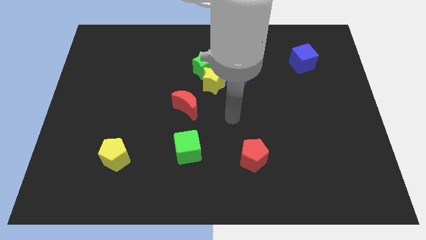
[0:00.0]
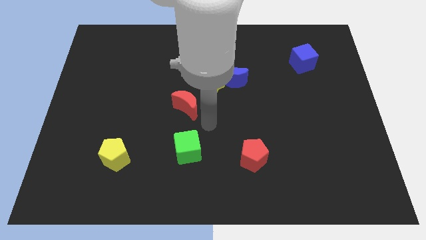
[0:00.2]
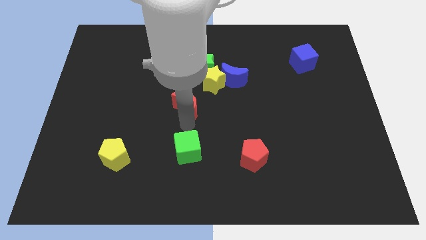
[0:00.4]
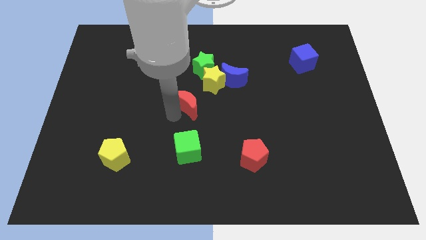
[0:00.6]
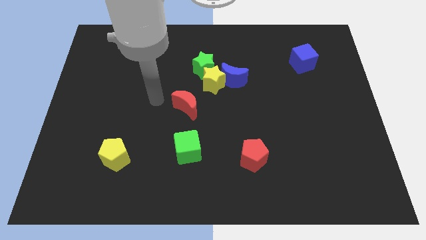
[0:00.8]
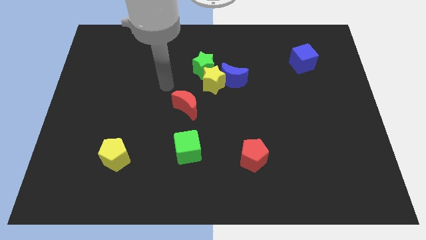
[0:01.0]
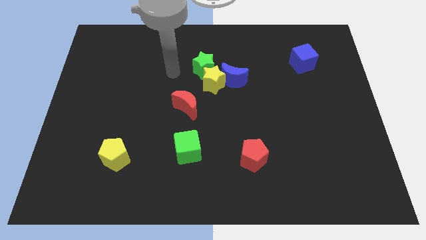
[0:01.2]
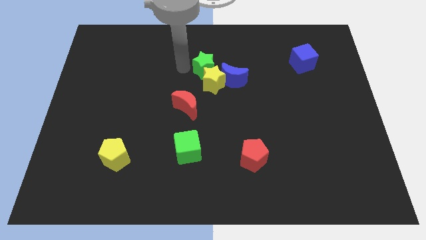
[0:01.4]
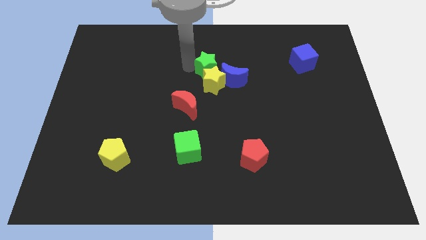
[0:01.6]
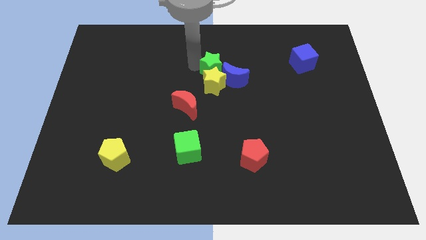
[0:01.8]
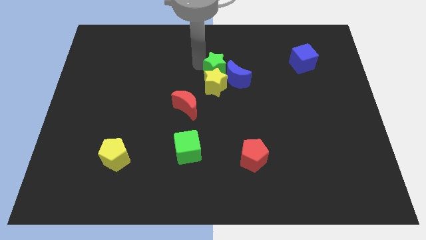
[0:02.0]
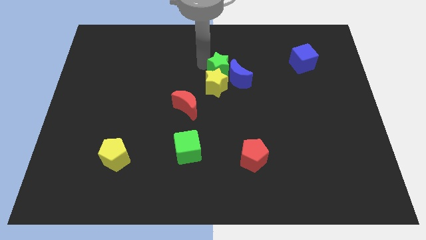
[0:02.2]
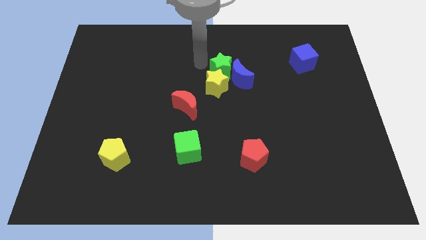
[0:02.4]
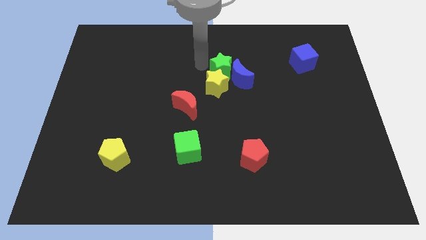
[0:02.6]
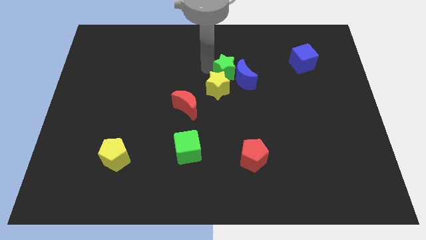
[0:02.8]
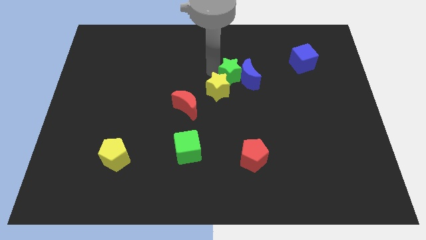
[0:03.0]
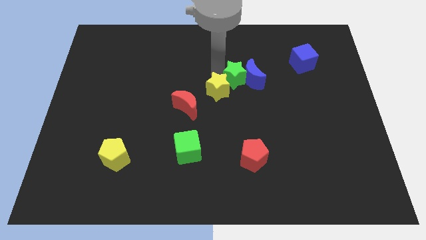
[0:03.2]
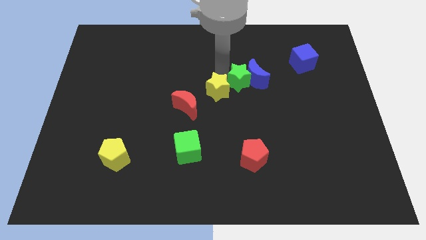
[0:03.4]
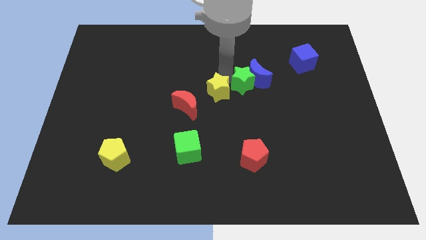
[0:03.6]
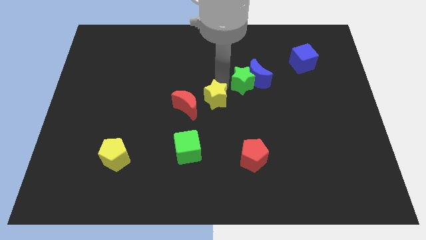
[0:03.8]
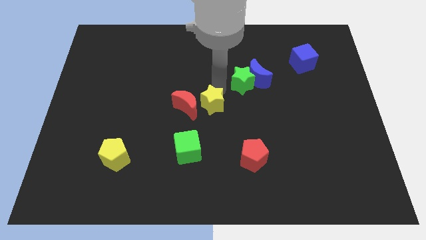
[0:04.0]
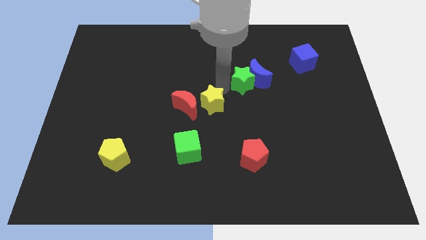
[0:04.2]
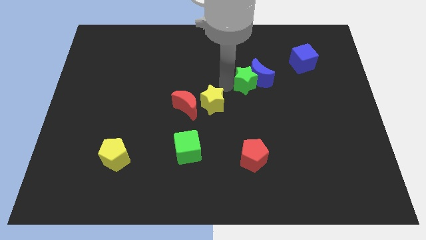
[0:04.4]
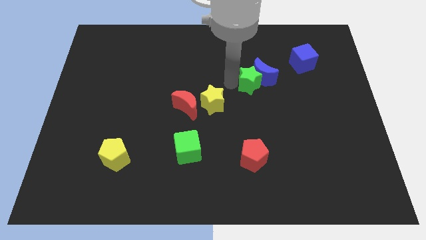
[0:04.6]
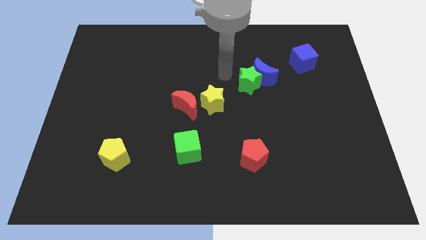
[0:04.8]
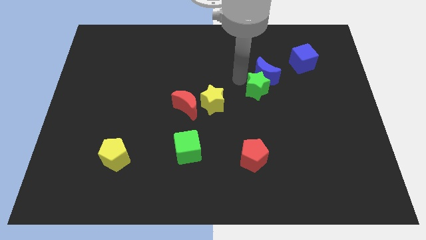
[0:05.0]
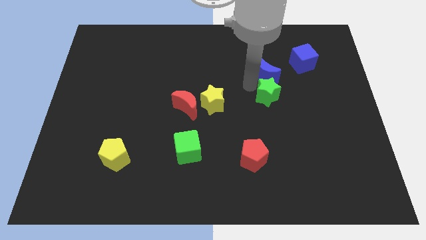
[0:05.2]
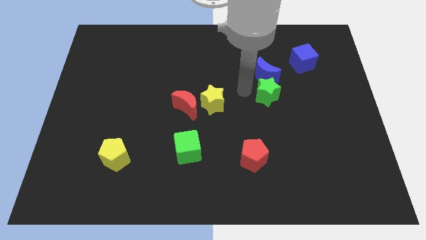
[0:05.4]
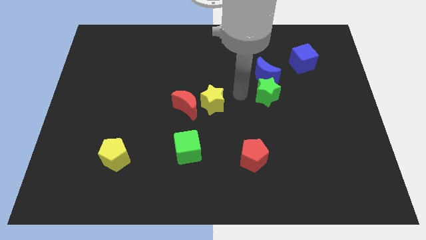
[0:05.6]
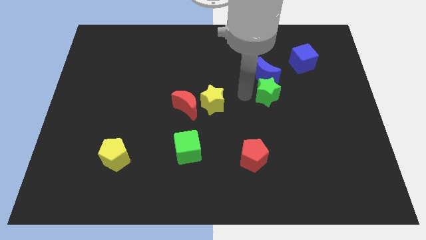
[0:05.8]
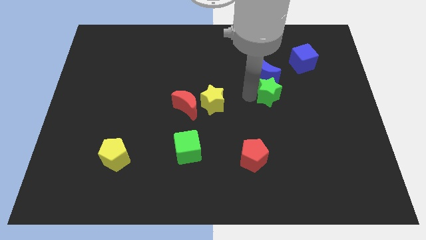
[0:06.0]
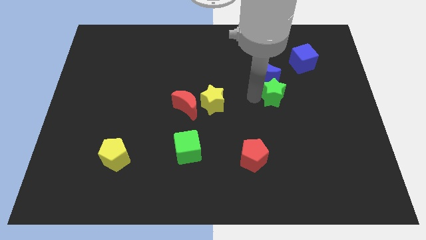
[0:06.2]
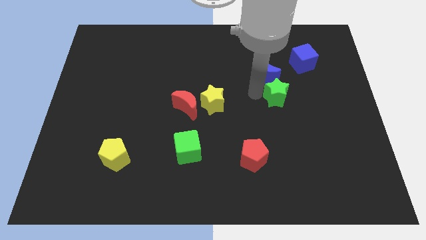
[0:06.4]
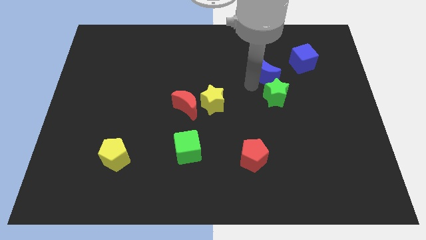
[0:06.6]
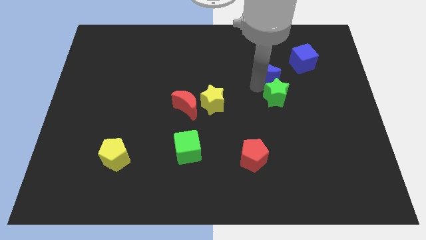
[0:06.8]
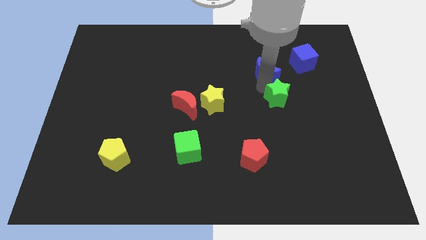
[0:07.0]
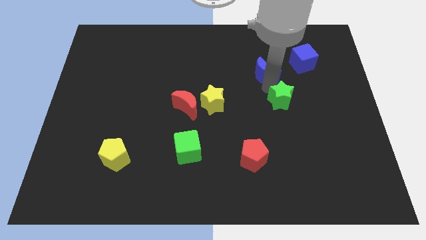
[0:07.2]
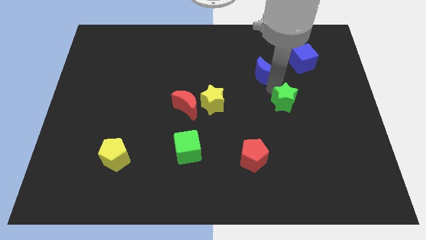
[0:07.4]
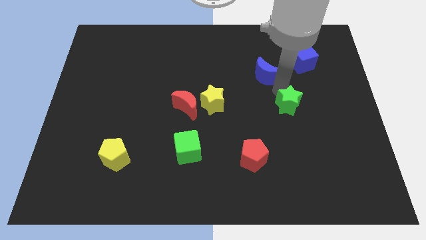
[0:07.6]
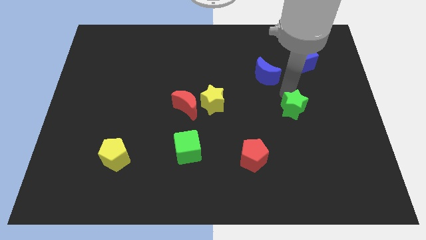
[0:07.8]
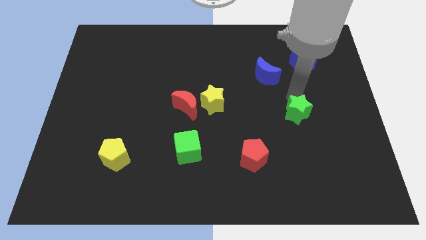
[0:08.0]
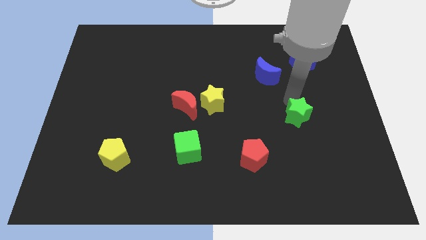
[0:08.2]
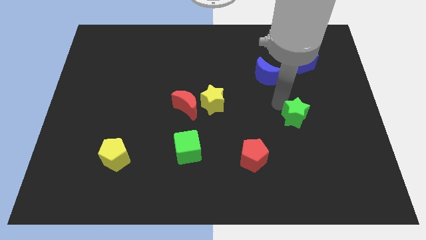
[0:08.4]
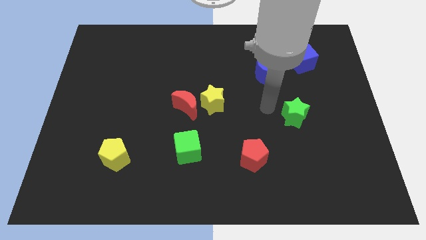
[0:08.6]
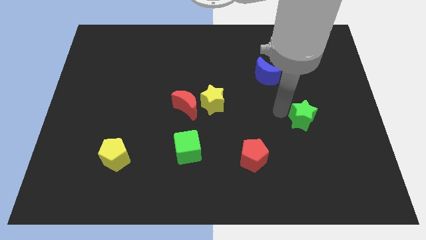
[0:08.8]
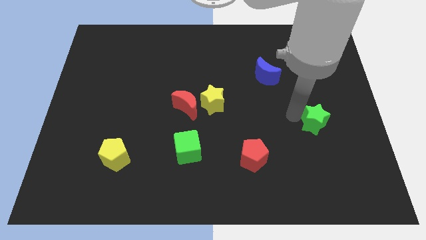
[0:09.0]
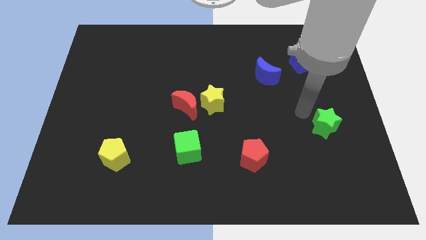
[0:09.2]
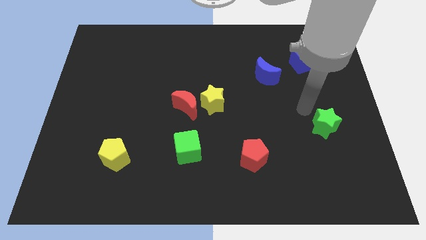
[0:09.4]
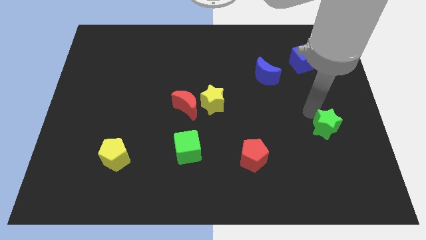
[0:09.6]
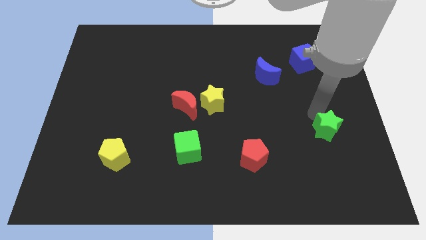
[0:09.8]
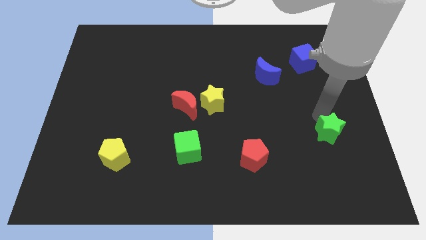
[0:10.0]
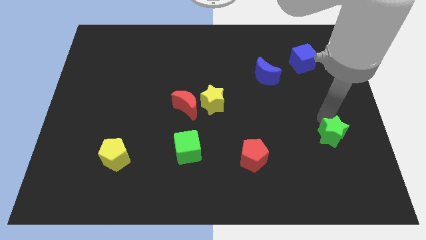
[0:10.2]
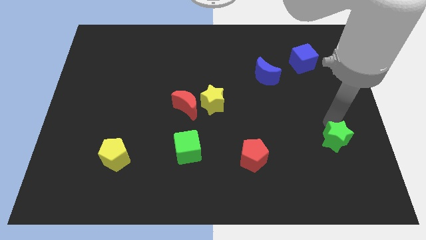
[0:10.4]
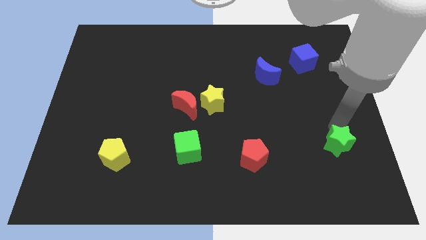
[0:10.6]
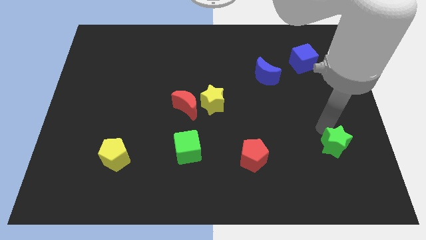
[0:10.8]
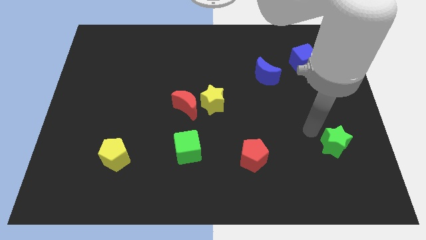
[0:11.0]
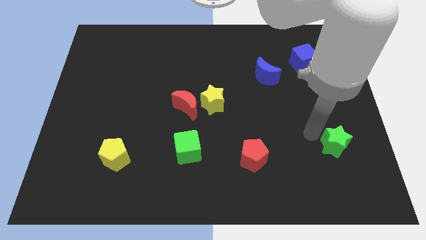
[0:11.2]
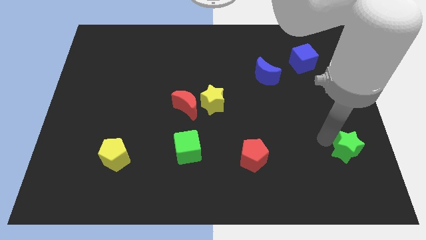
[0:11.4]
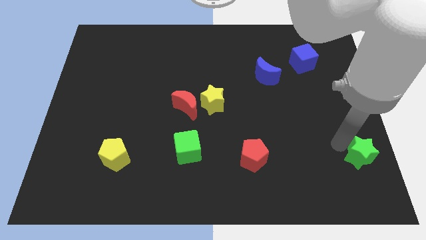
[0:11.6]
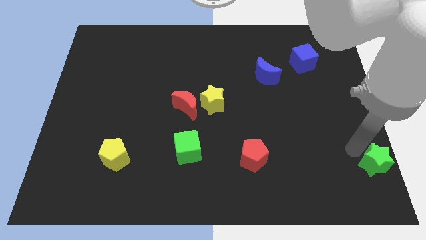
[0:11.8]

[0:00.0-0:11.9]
push the green star to the lower right corner
